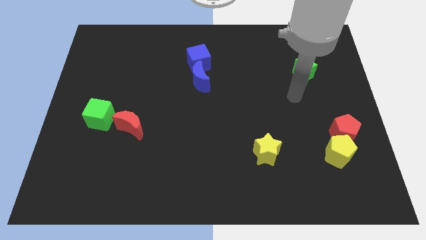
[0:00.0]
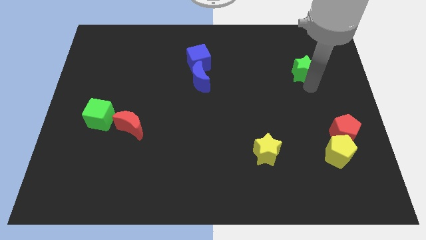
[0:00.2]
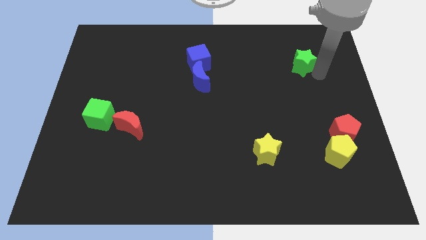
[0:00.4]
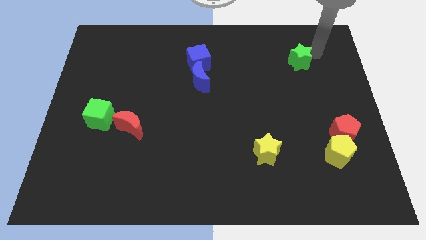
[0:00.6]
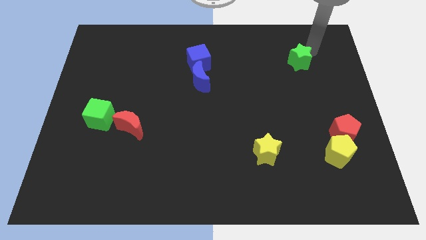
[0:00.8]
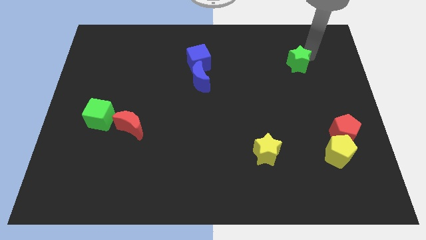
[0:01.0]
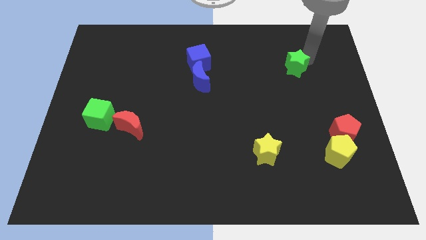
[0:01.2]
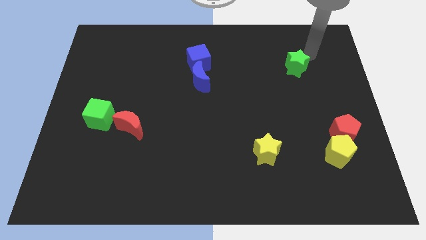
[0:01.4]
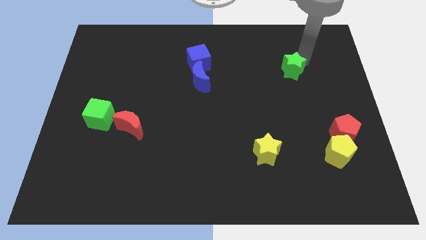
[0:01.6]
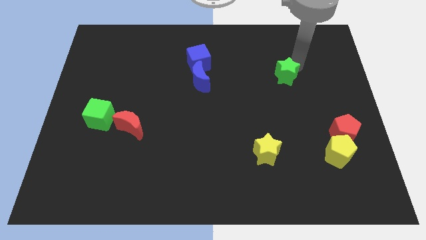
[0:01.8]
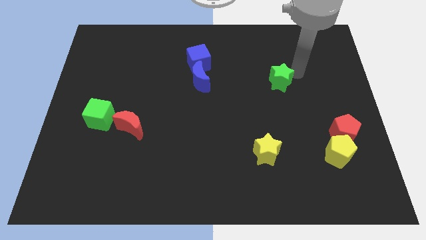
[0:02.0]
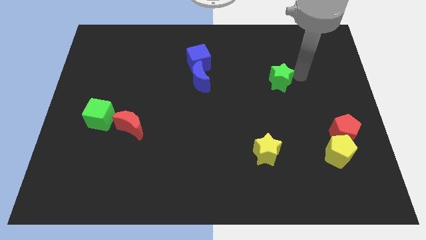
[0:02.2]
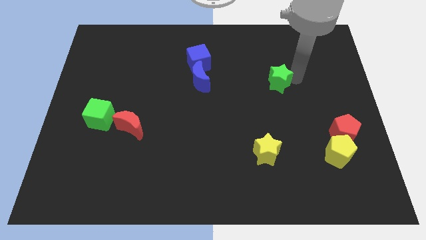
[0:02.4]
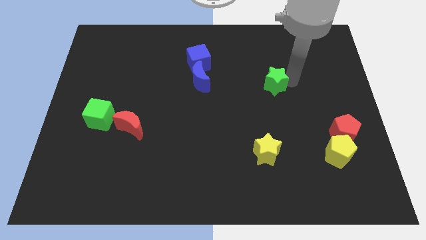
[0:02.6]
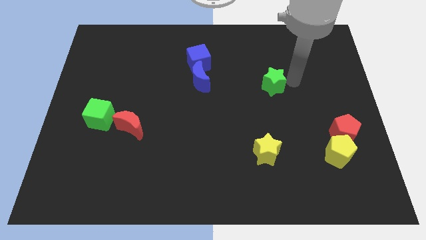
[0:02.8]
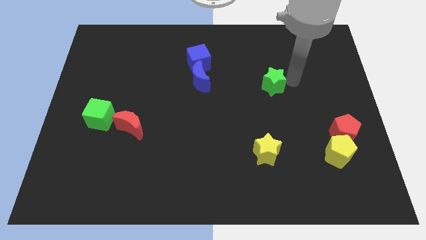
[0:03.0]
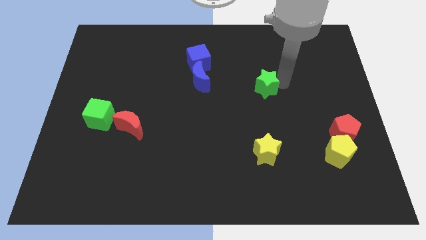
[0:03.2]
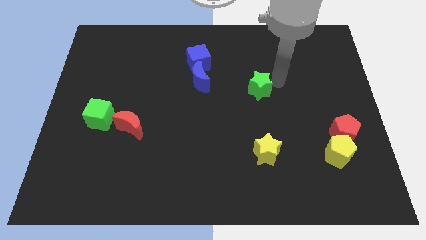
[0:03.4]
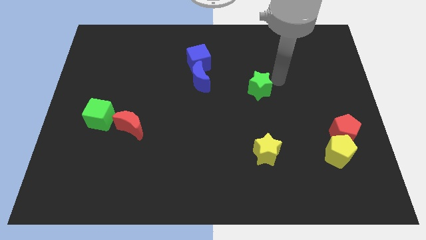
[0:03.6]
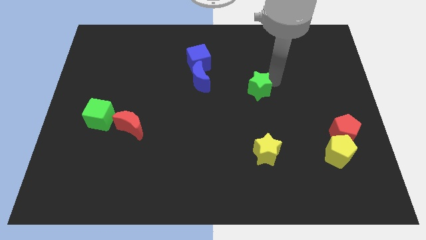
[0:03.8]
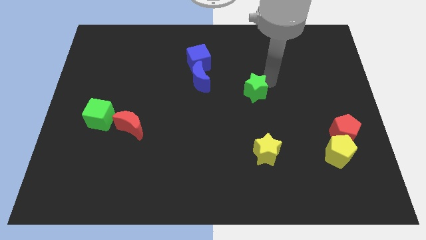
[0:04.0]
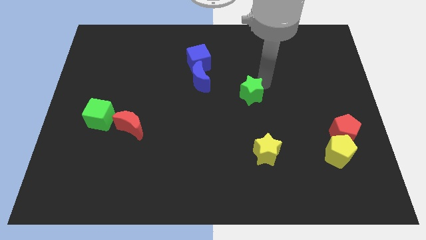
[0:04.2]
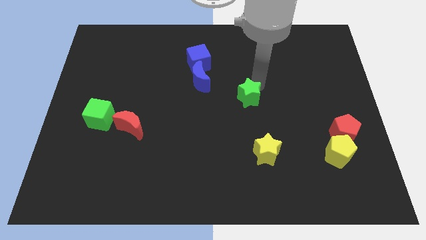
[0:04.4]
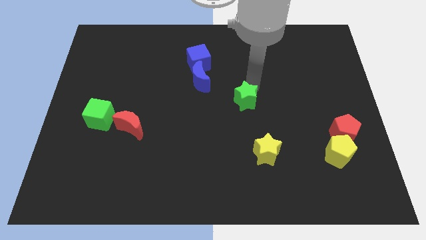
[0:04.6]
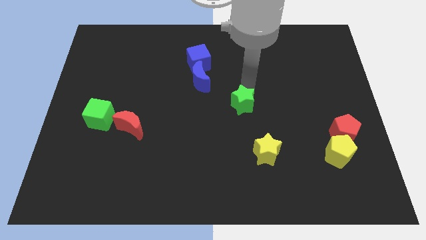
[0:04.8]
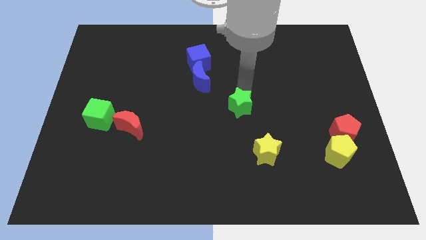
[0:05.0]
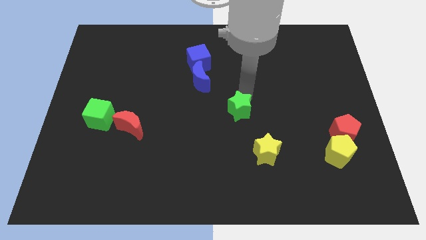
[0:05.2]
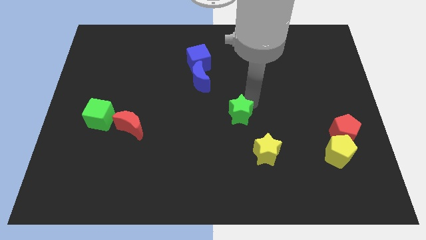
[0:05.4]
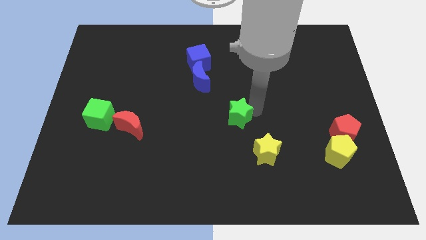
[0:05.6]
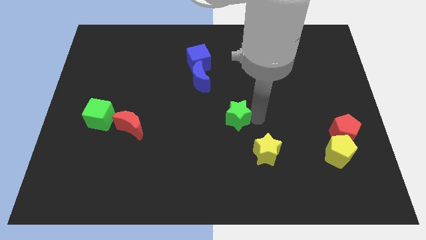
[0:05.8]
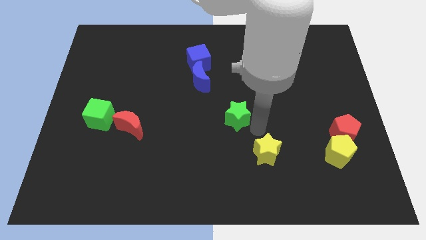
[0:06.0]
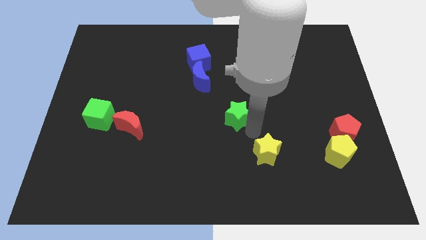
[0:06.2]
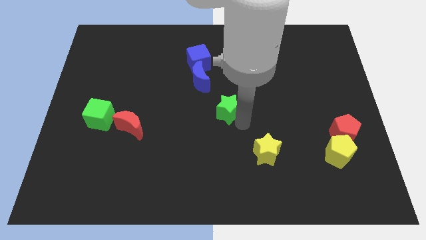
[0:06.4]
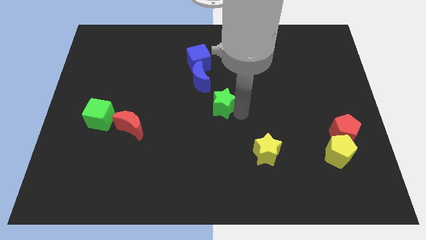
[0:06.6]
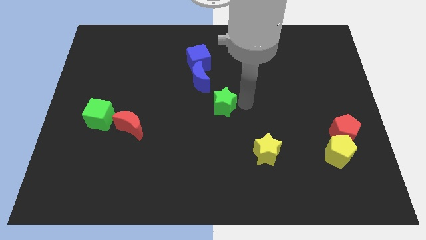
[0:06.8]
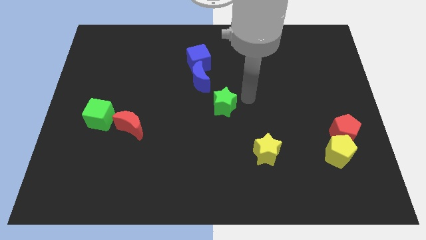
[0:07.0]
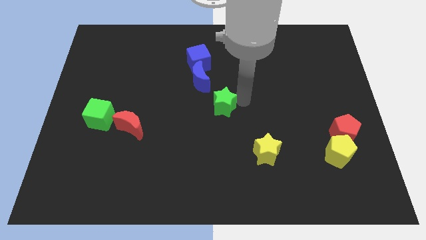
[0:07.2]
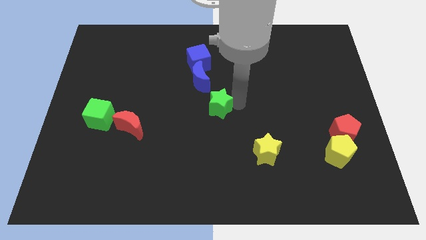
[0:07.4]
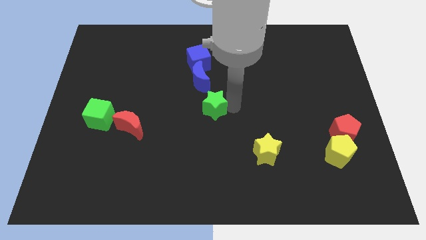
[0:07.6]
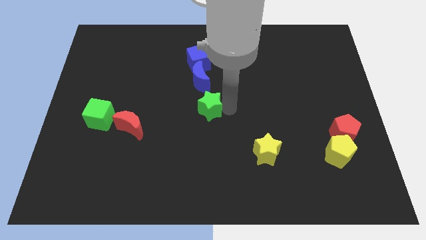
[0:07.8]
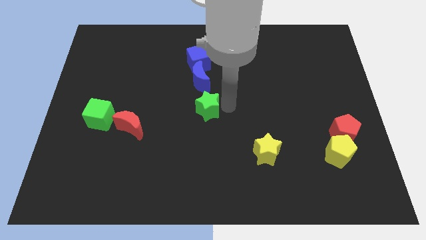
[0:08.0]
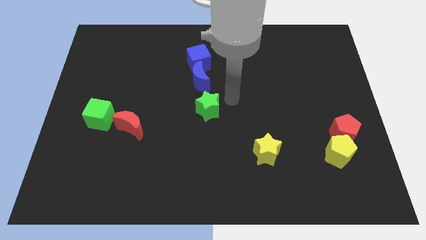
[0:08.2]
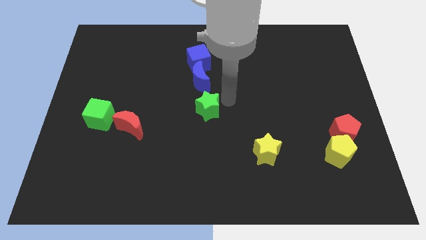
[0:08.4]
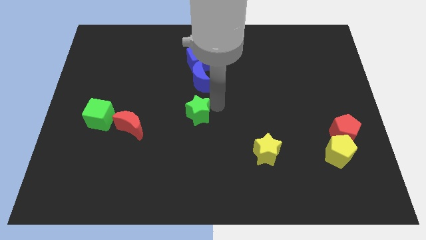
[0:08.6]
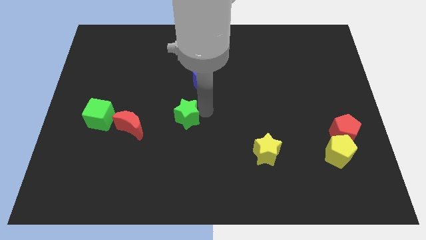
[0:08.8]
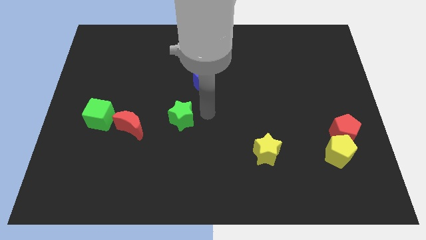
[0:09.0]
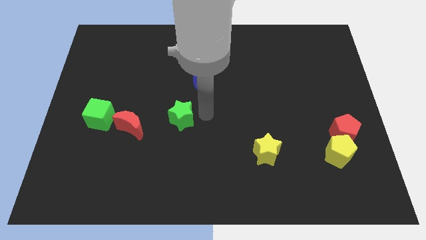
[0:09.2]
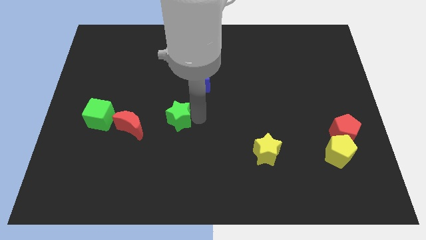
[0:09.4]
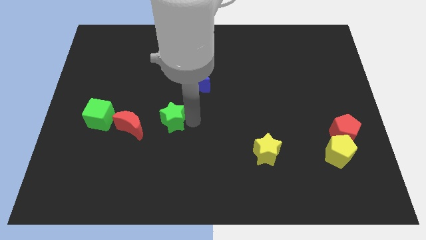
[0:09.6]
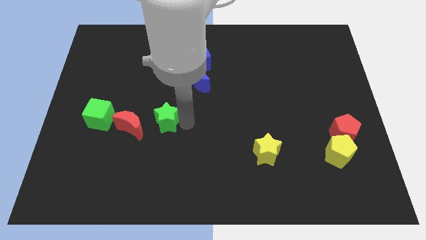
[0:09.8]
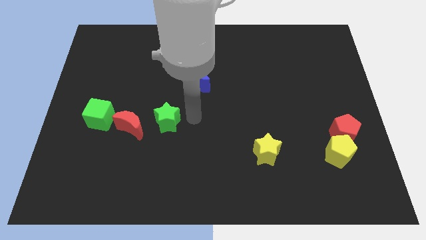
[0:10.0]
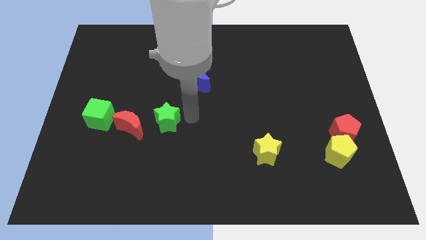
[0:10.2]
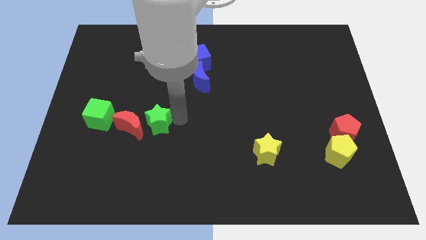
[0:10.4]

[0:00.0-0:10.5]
push the green star towards the red moon

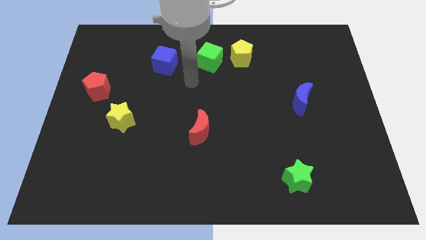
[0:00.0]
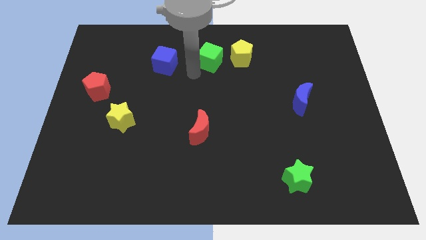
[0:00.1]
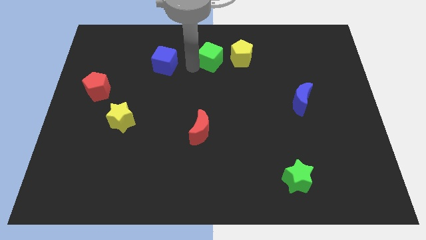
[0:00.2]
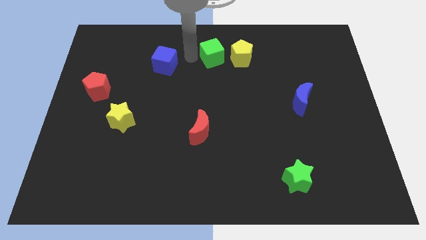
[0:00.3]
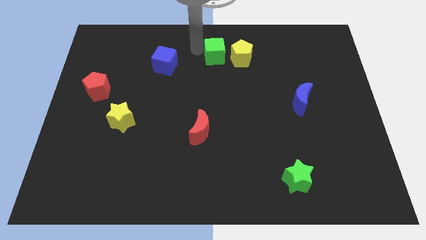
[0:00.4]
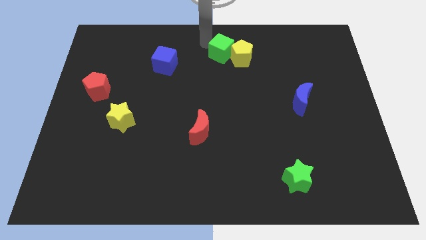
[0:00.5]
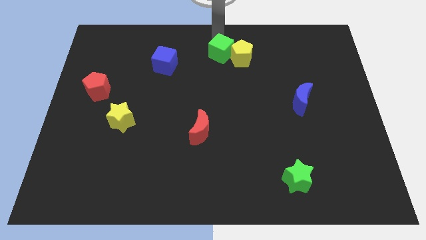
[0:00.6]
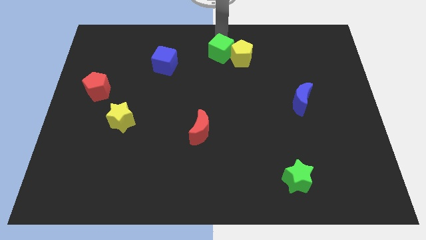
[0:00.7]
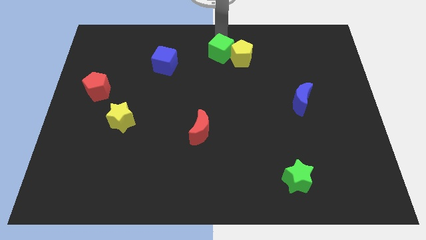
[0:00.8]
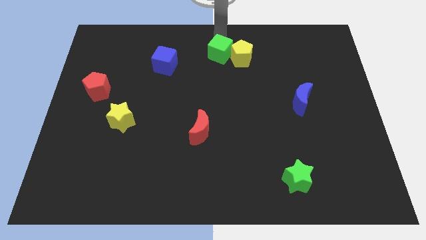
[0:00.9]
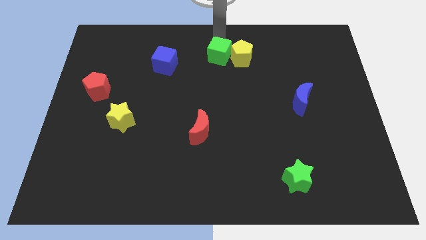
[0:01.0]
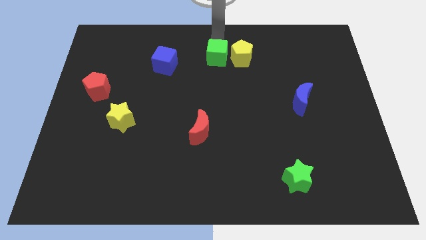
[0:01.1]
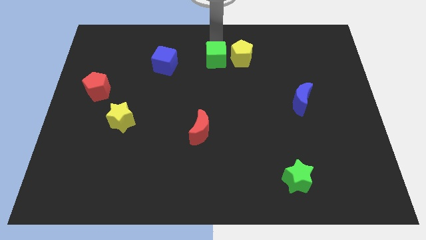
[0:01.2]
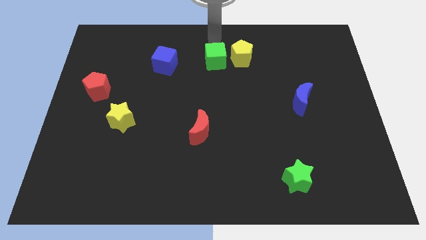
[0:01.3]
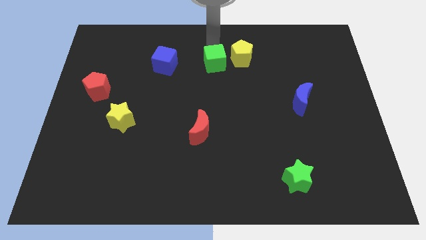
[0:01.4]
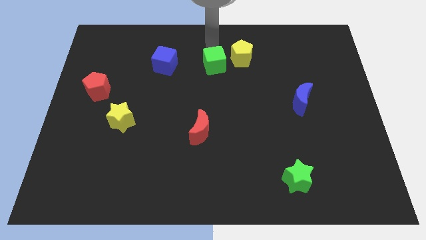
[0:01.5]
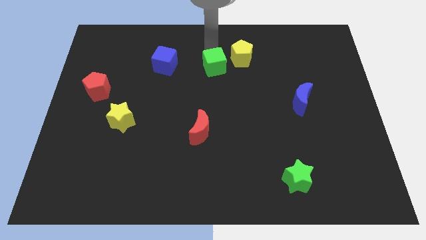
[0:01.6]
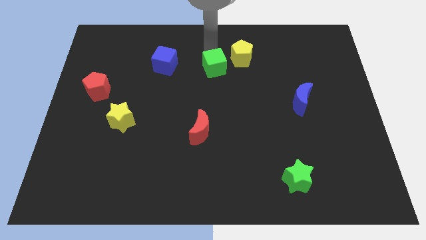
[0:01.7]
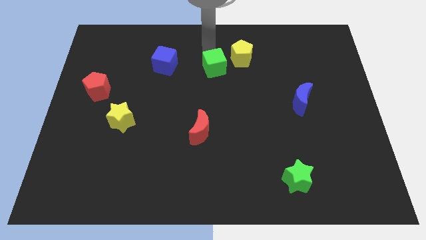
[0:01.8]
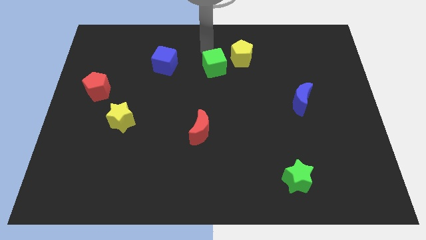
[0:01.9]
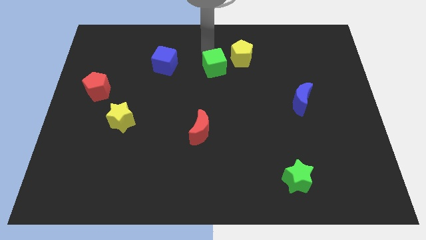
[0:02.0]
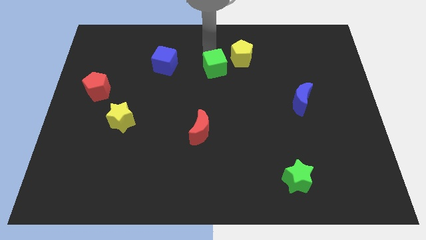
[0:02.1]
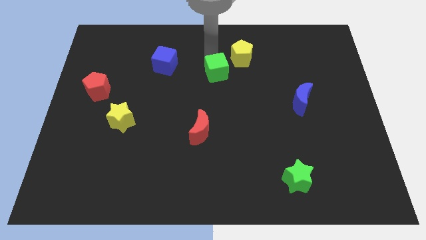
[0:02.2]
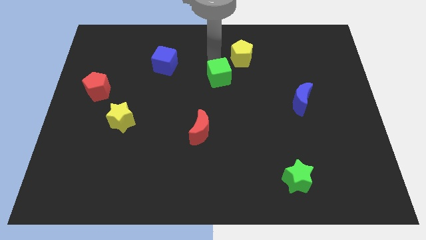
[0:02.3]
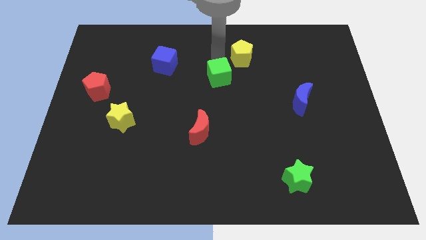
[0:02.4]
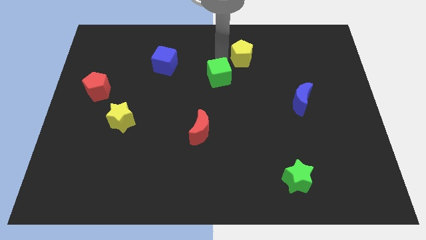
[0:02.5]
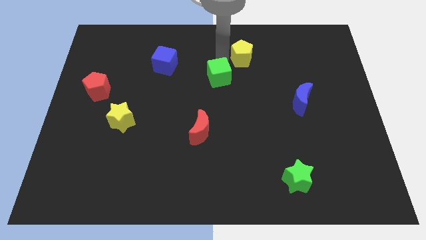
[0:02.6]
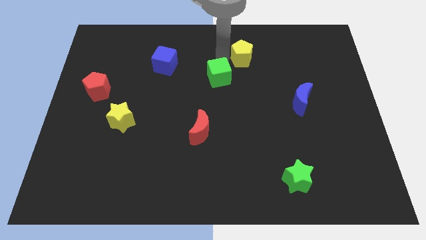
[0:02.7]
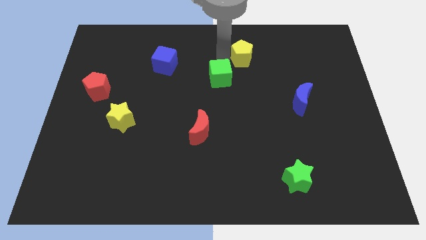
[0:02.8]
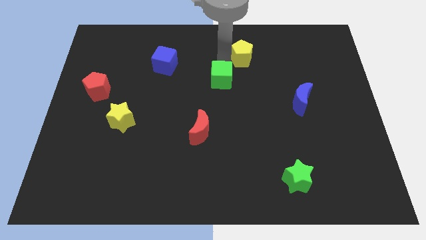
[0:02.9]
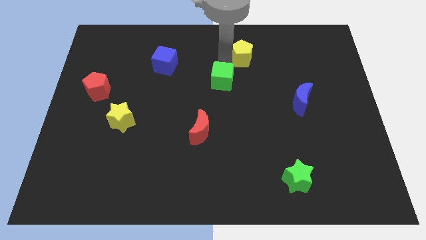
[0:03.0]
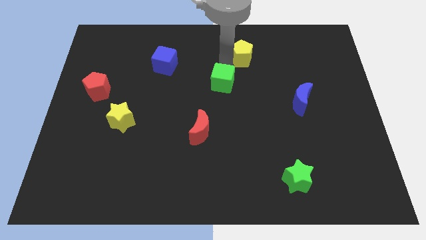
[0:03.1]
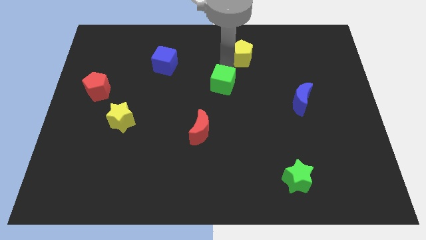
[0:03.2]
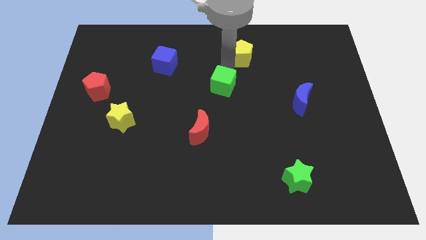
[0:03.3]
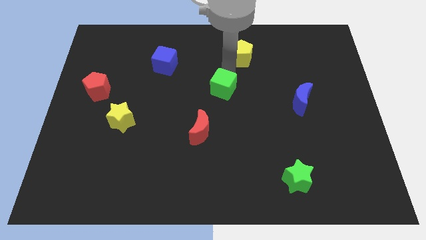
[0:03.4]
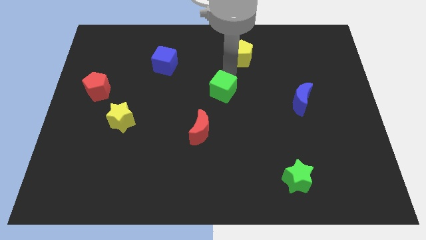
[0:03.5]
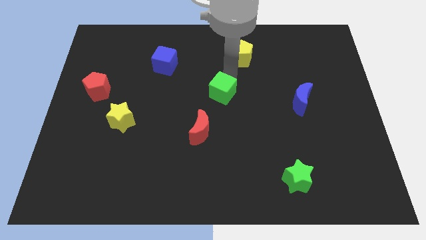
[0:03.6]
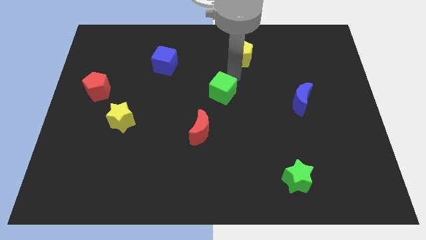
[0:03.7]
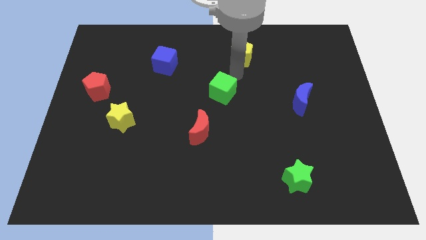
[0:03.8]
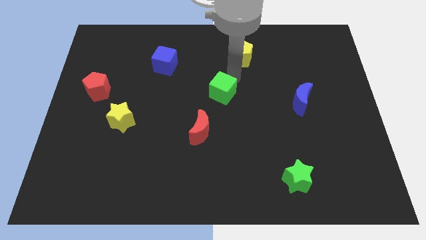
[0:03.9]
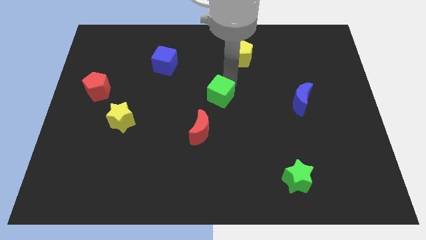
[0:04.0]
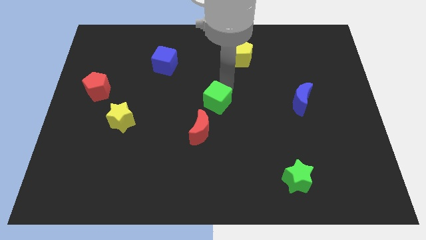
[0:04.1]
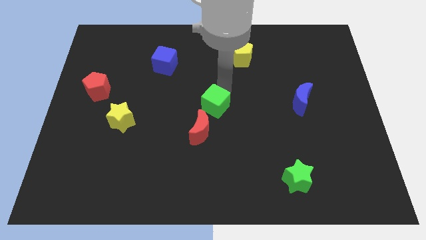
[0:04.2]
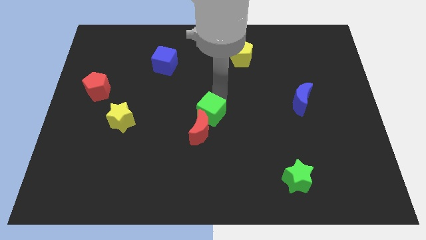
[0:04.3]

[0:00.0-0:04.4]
move the green cube towards the red moon
